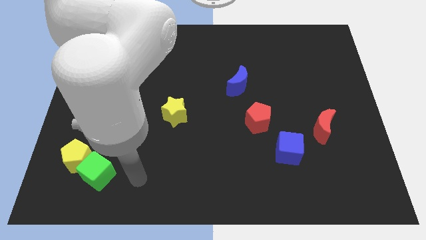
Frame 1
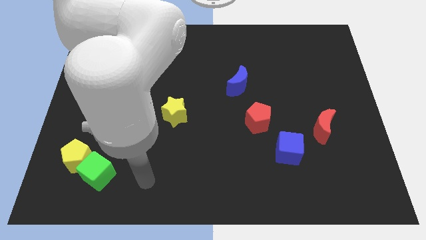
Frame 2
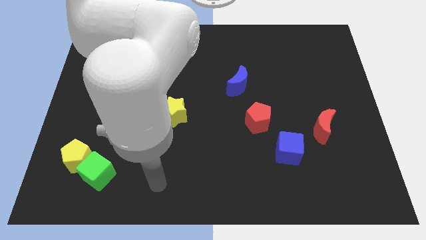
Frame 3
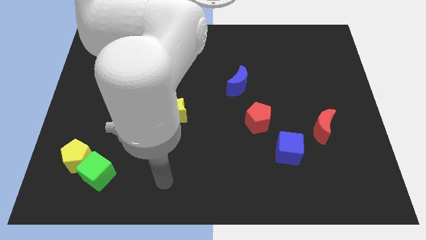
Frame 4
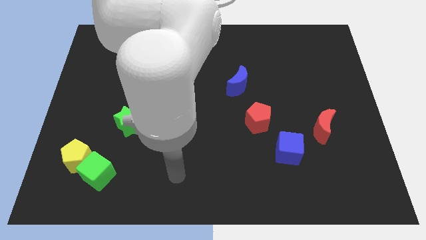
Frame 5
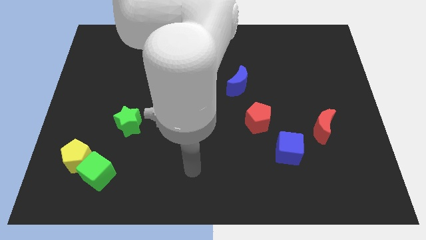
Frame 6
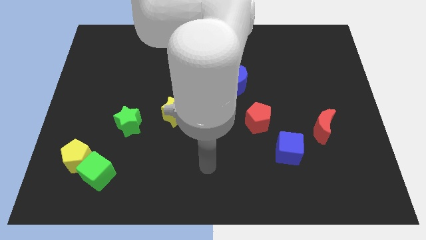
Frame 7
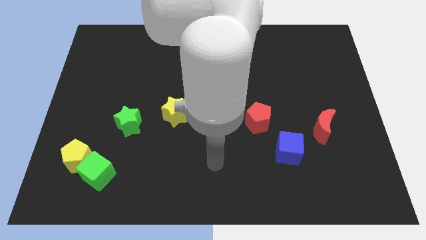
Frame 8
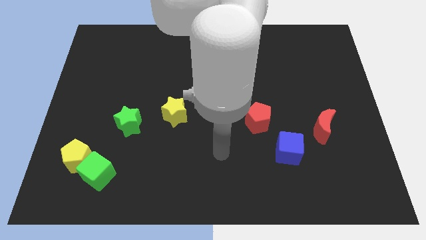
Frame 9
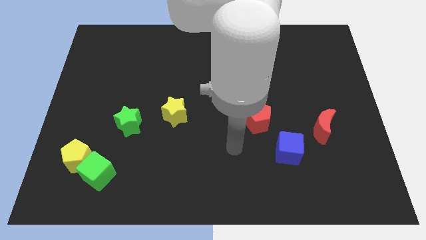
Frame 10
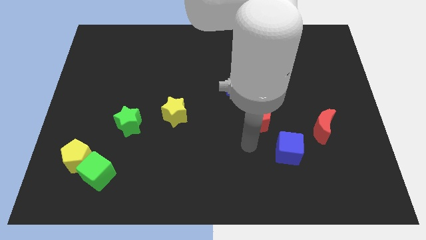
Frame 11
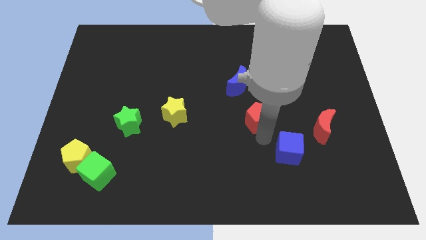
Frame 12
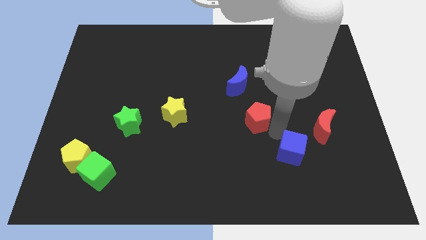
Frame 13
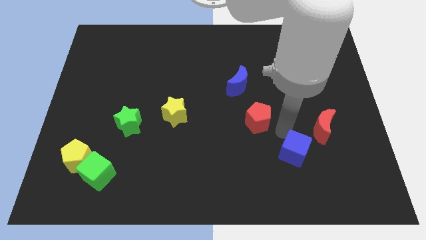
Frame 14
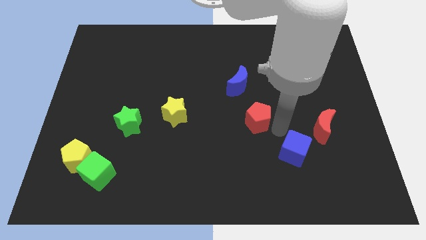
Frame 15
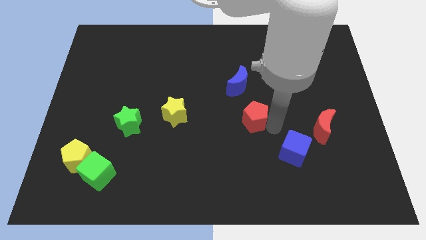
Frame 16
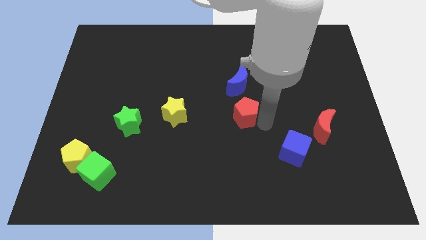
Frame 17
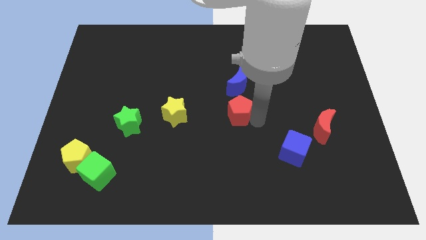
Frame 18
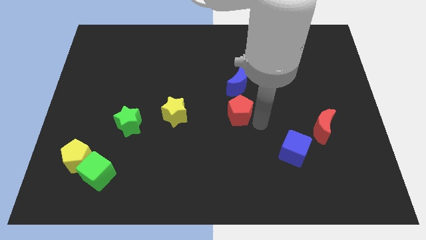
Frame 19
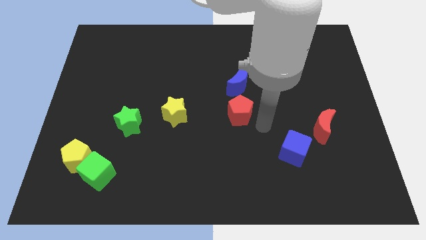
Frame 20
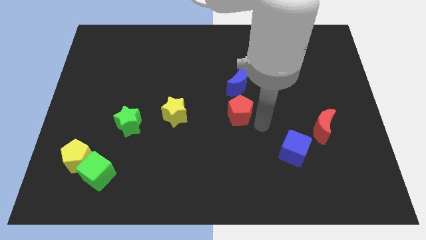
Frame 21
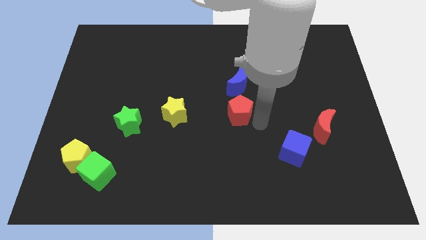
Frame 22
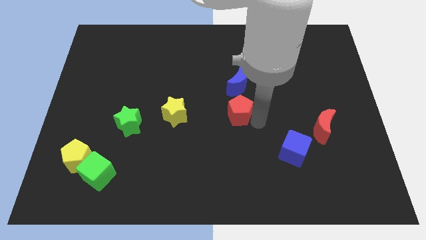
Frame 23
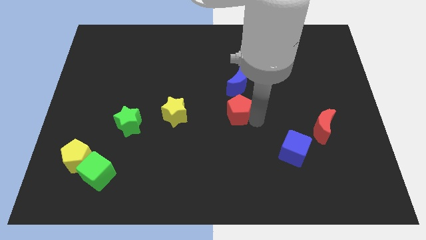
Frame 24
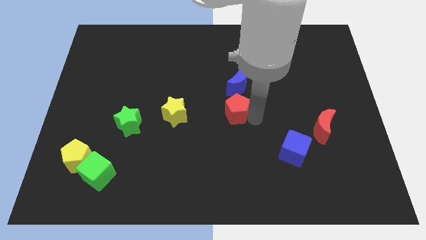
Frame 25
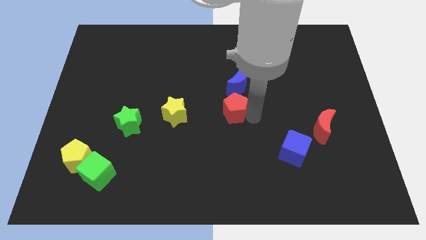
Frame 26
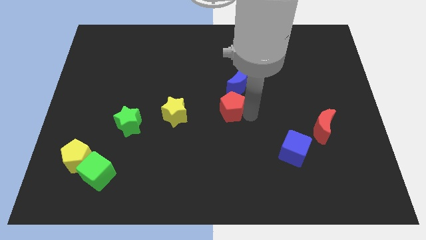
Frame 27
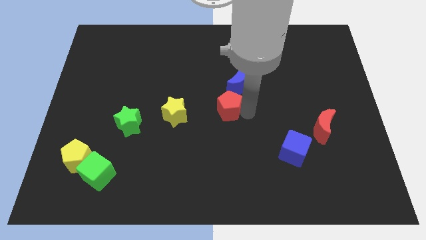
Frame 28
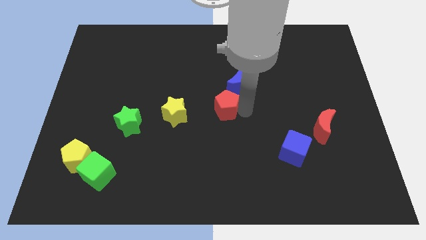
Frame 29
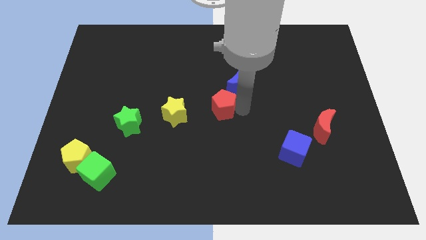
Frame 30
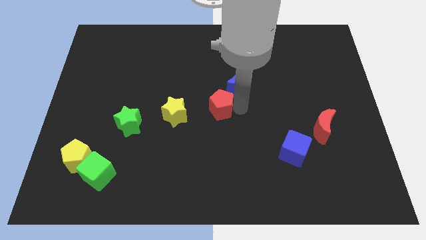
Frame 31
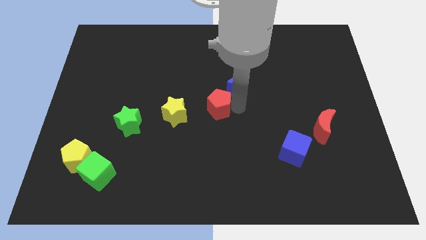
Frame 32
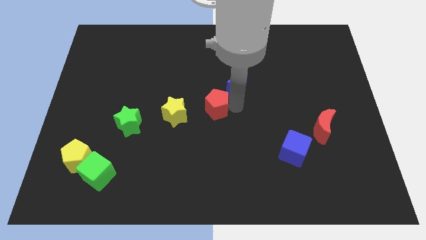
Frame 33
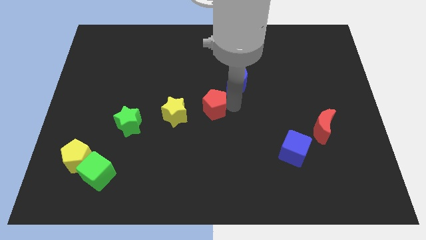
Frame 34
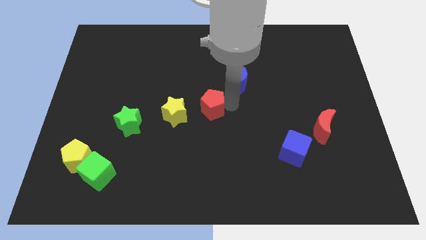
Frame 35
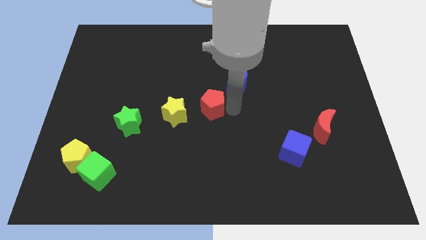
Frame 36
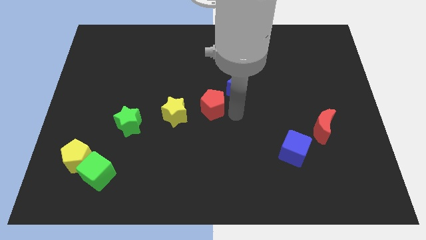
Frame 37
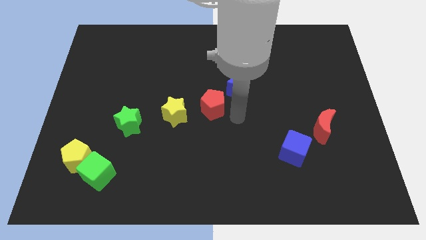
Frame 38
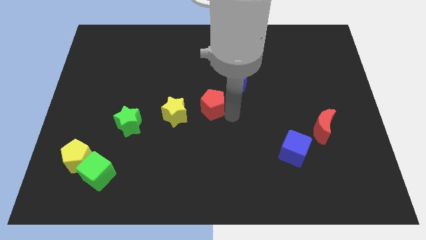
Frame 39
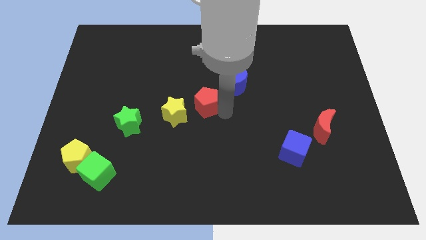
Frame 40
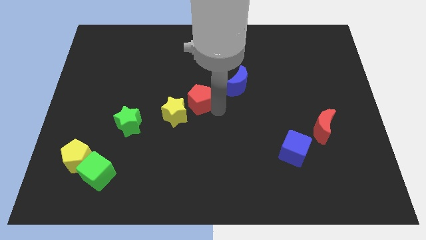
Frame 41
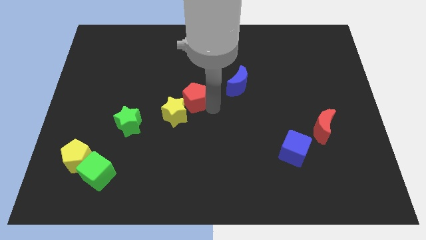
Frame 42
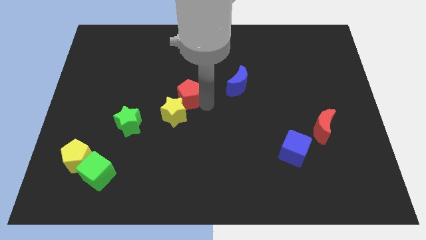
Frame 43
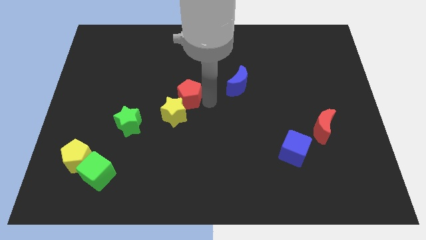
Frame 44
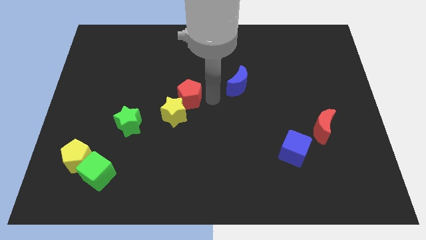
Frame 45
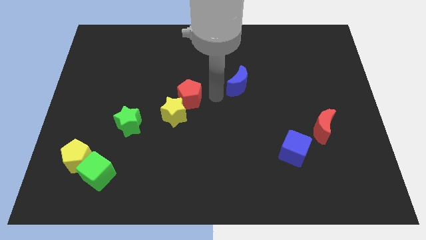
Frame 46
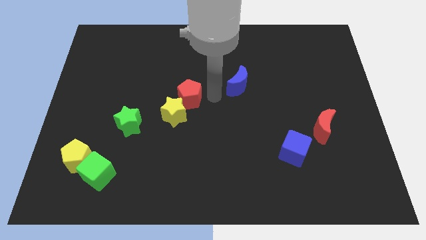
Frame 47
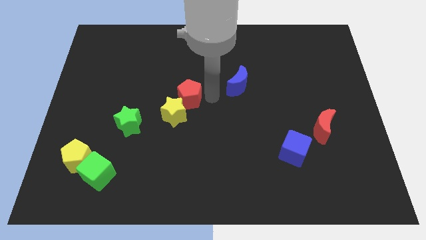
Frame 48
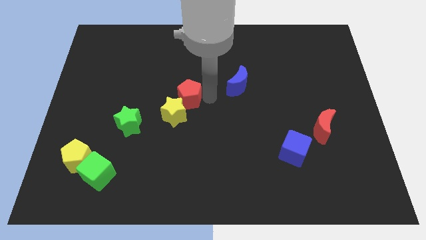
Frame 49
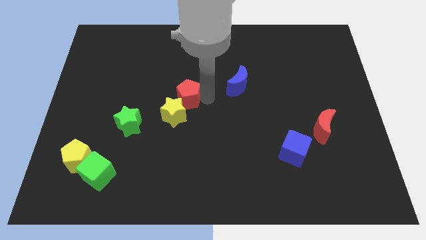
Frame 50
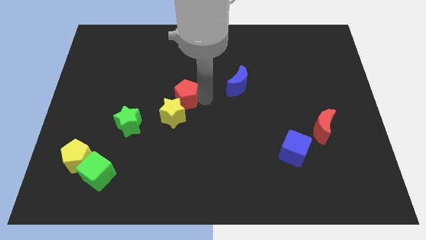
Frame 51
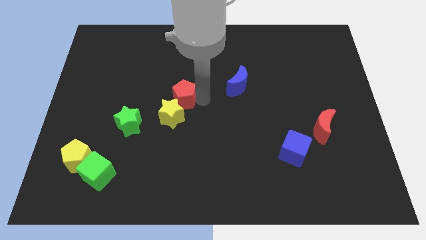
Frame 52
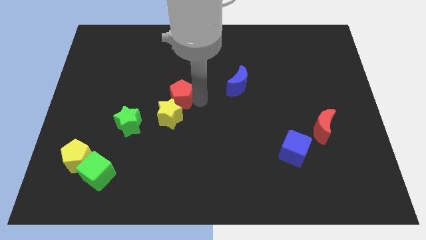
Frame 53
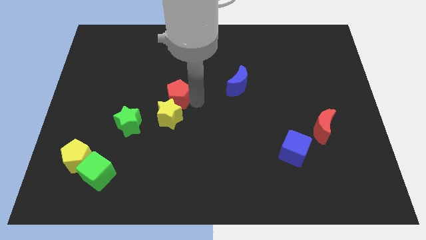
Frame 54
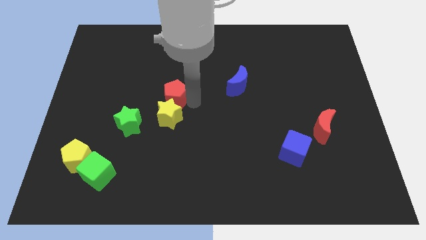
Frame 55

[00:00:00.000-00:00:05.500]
slide the red pentagon to the top right side of the green star

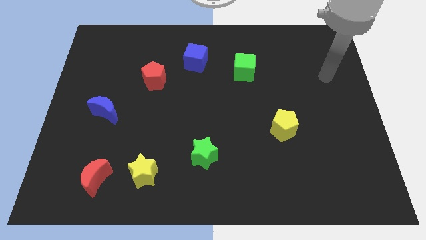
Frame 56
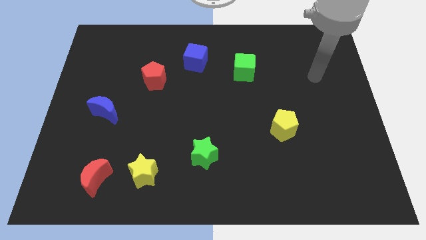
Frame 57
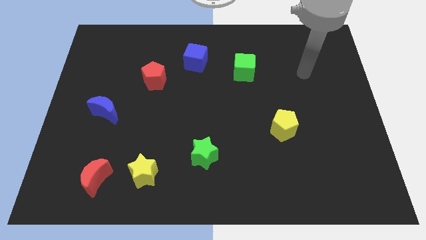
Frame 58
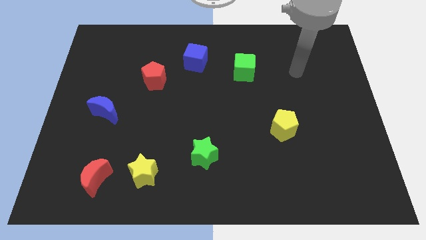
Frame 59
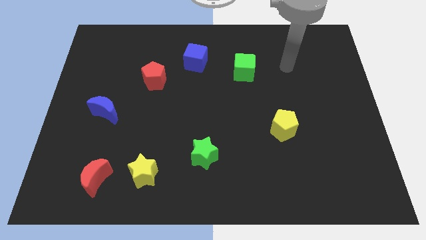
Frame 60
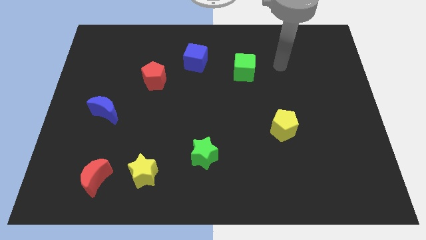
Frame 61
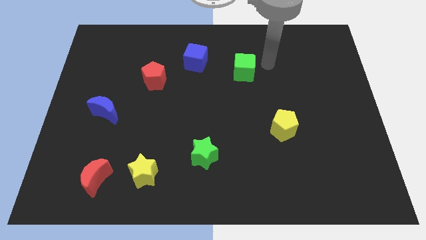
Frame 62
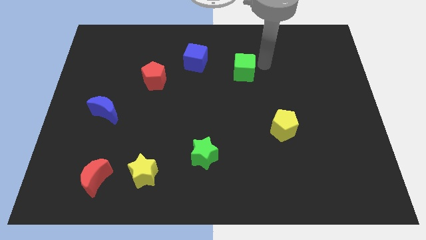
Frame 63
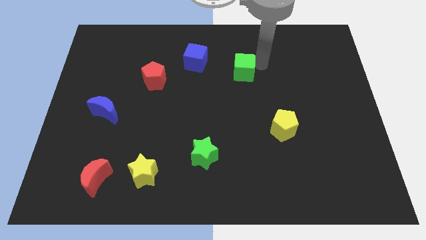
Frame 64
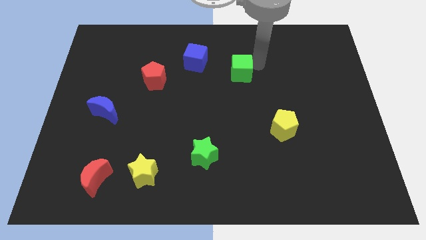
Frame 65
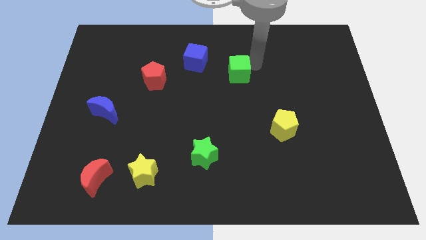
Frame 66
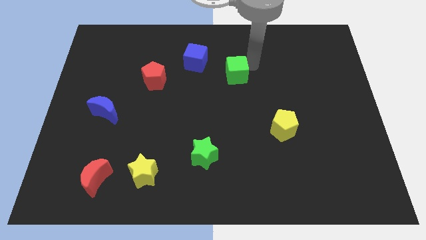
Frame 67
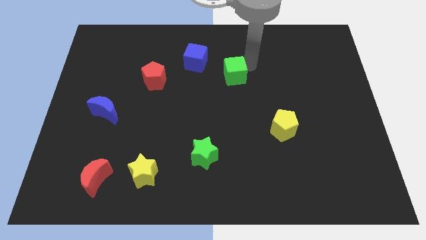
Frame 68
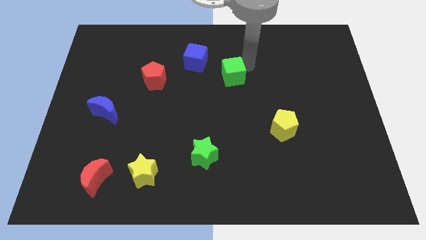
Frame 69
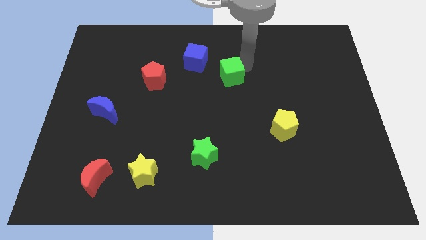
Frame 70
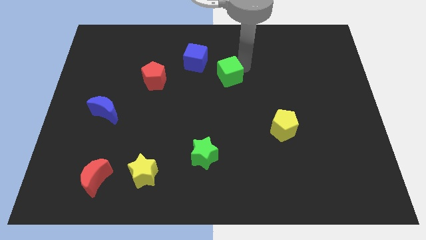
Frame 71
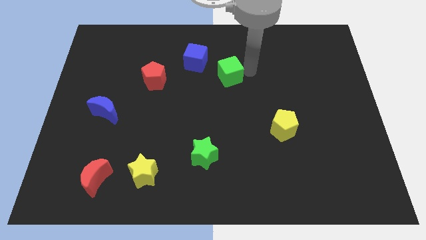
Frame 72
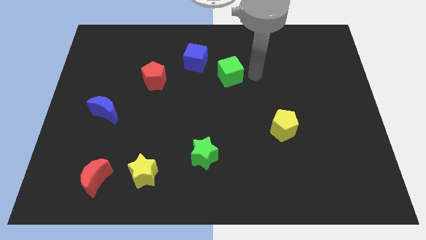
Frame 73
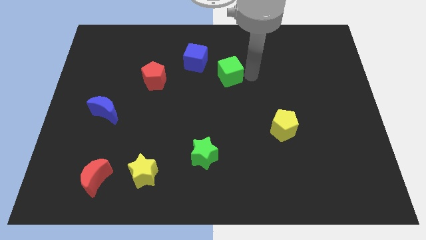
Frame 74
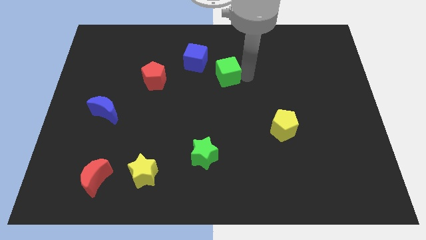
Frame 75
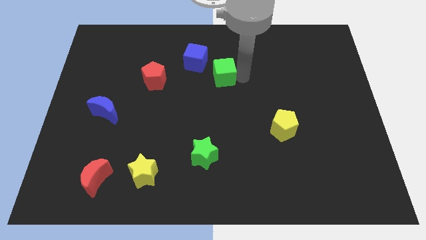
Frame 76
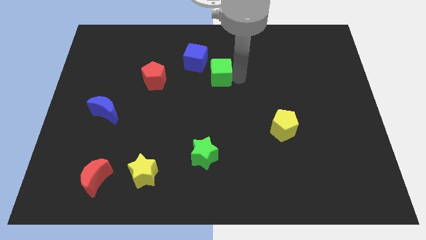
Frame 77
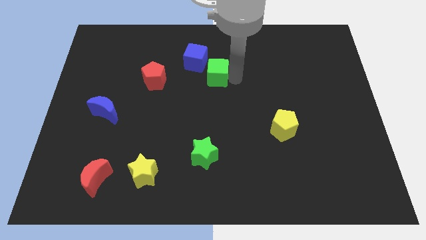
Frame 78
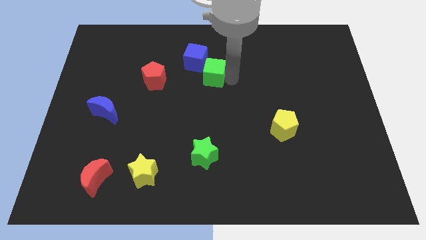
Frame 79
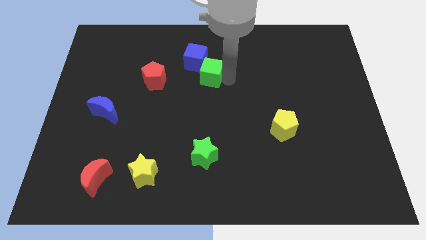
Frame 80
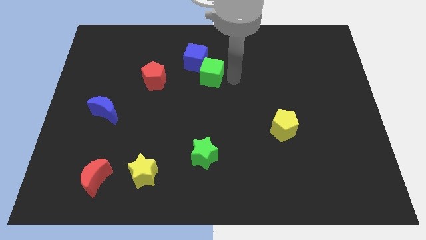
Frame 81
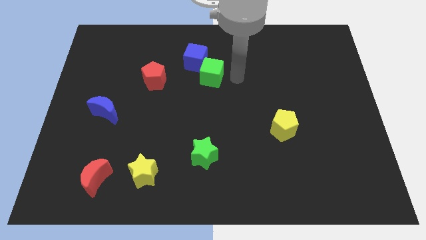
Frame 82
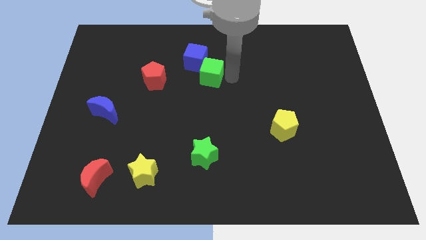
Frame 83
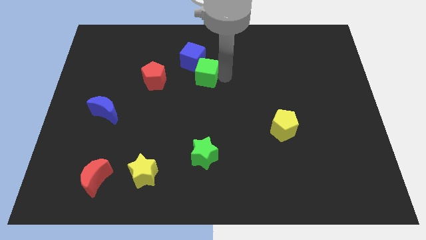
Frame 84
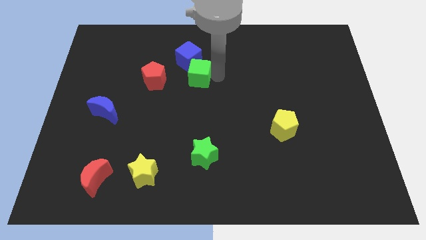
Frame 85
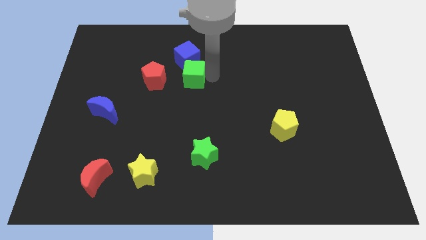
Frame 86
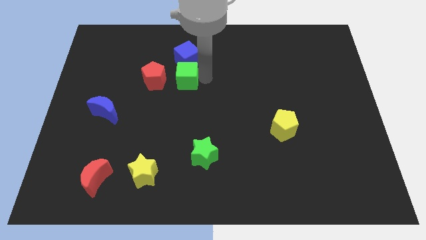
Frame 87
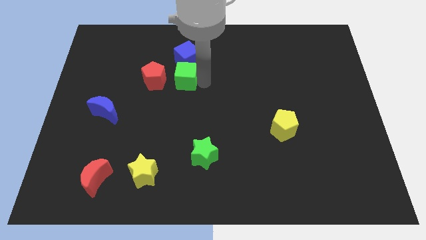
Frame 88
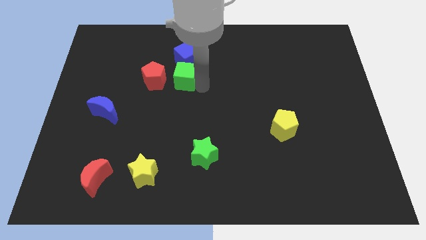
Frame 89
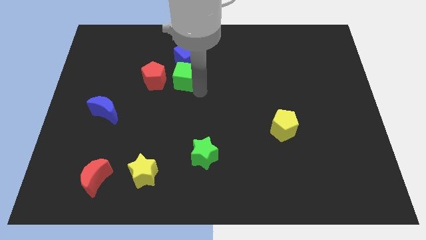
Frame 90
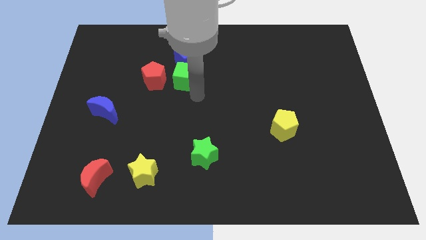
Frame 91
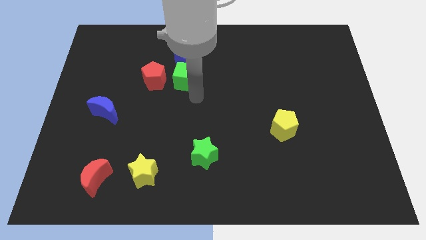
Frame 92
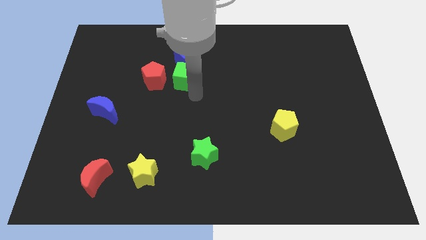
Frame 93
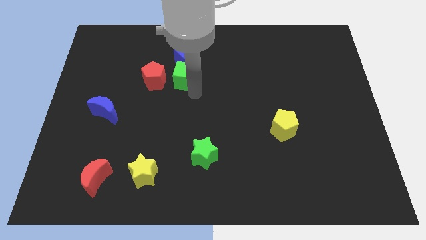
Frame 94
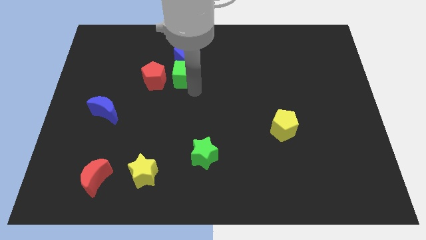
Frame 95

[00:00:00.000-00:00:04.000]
slide the green cube to the top right of the red pentagon
